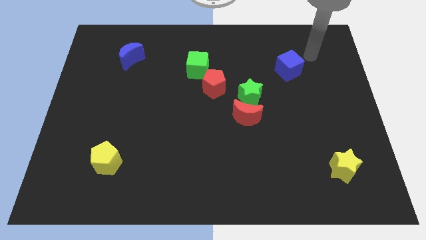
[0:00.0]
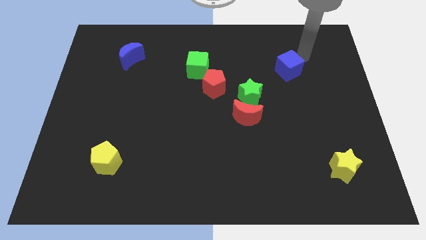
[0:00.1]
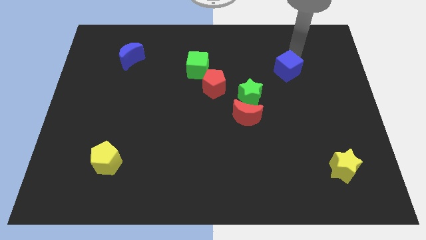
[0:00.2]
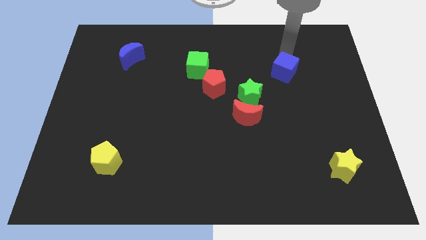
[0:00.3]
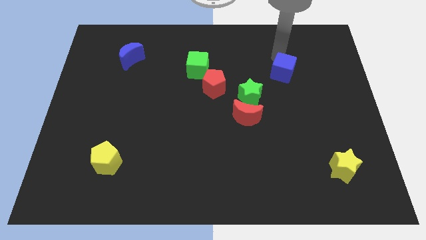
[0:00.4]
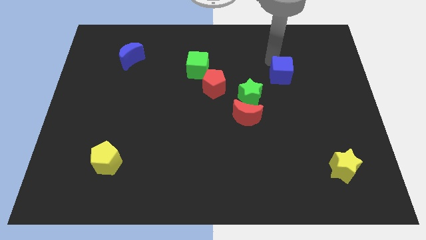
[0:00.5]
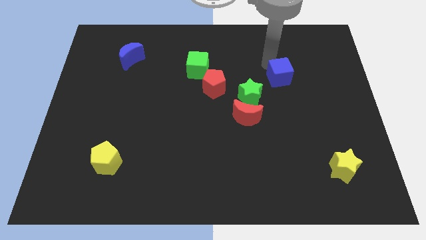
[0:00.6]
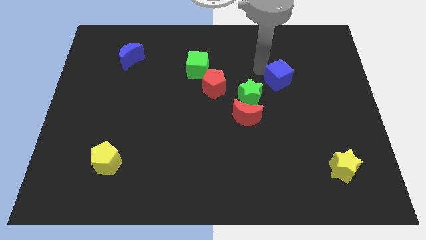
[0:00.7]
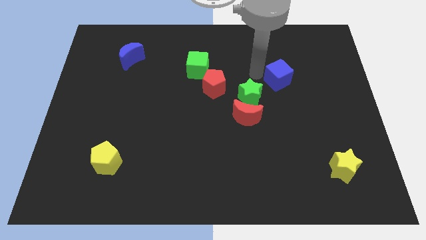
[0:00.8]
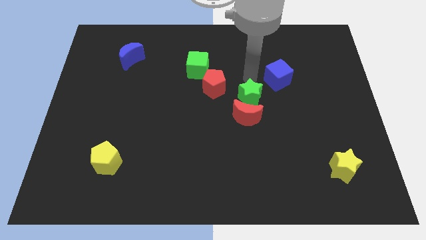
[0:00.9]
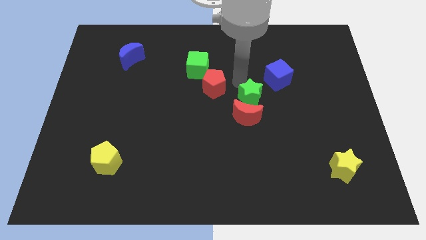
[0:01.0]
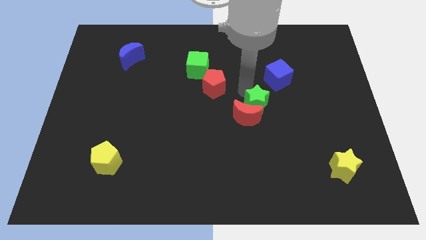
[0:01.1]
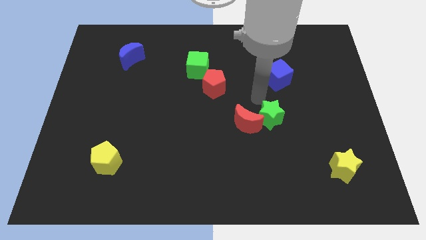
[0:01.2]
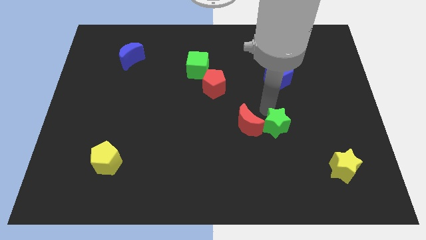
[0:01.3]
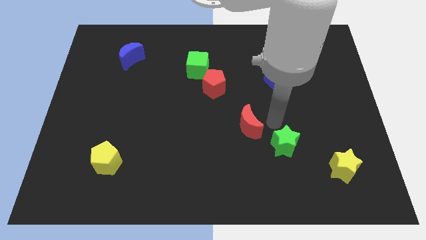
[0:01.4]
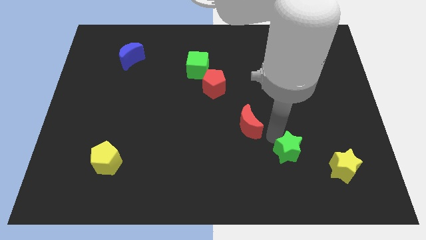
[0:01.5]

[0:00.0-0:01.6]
pull the red moon apart from the green star

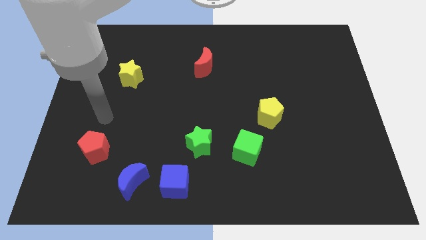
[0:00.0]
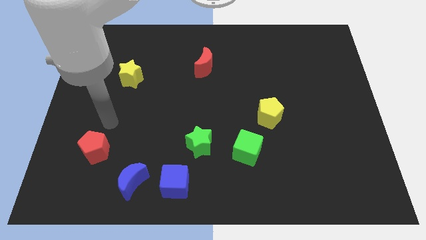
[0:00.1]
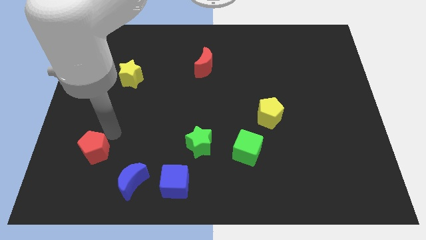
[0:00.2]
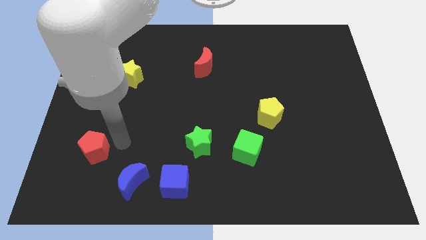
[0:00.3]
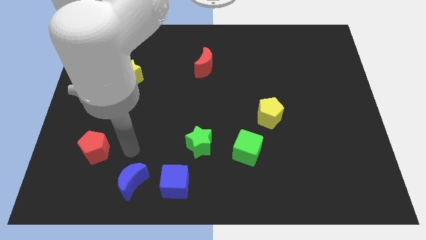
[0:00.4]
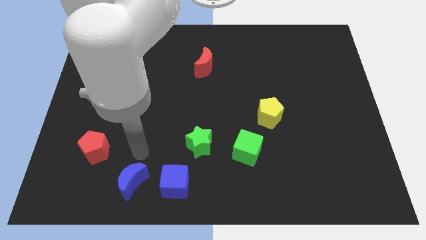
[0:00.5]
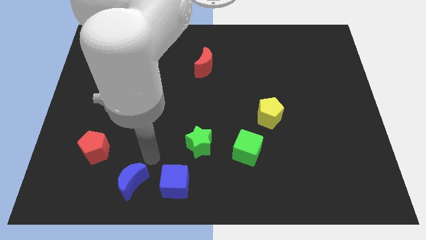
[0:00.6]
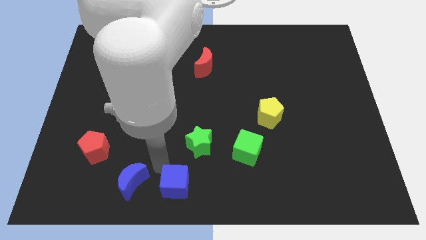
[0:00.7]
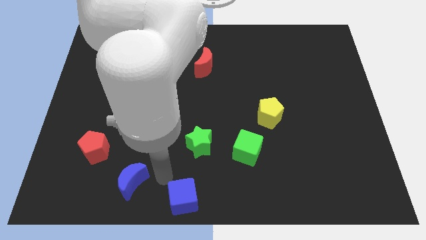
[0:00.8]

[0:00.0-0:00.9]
move the blue moon away from the blue cube

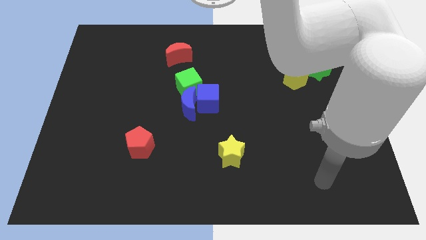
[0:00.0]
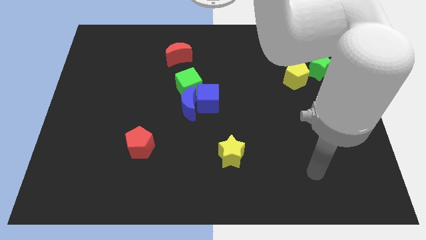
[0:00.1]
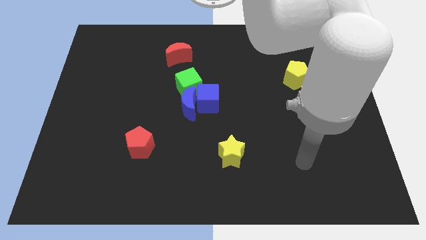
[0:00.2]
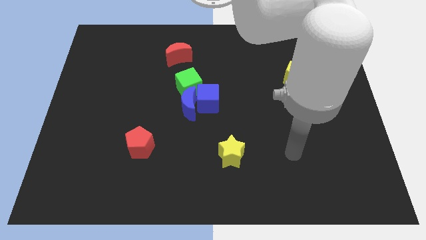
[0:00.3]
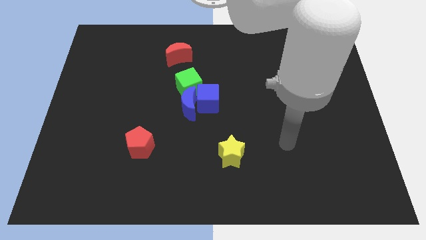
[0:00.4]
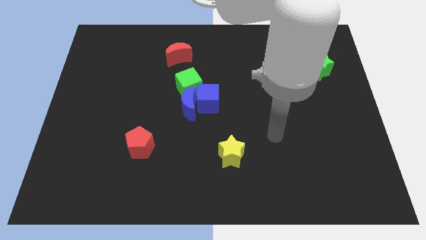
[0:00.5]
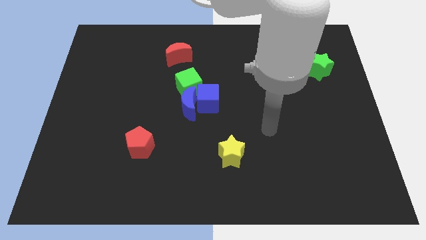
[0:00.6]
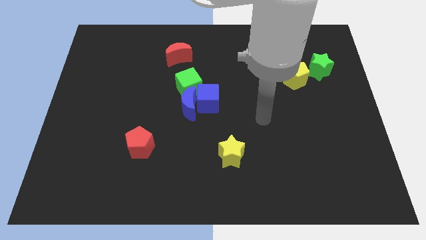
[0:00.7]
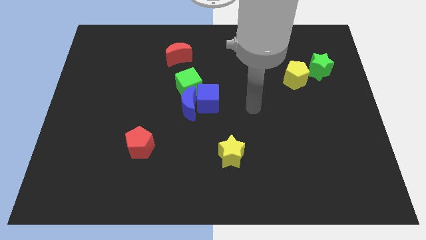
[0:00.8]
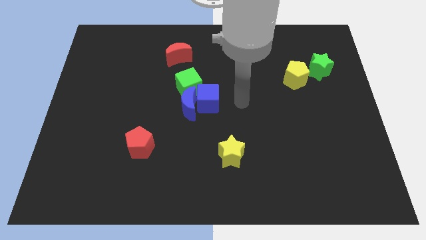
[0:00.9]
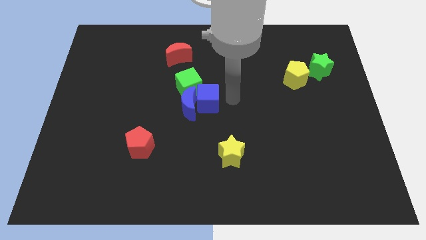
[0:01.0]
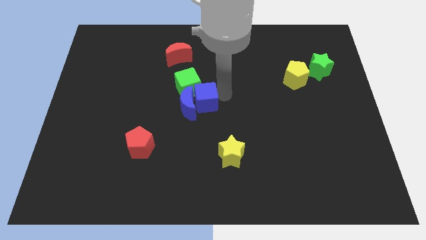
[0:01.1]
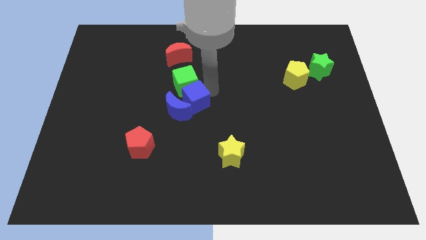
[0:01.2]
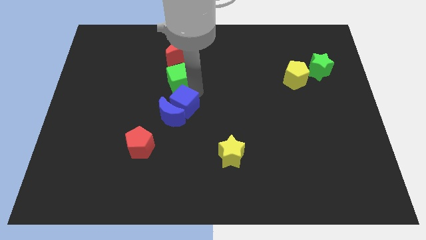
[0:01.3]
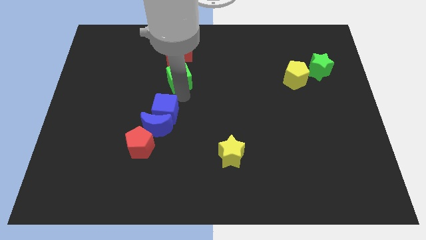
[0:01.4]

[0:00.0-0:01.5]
pull the blue moon apart from the blue cube and green cube

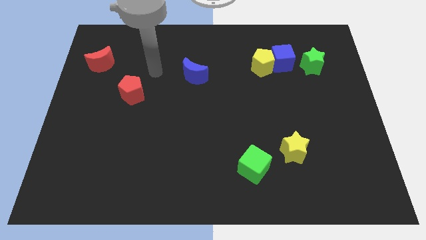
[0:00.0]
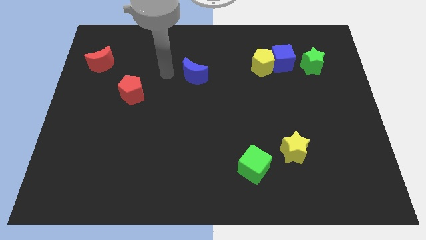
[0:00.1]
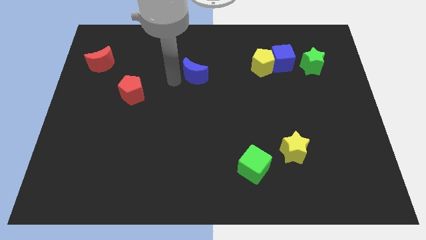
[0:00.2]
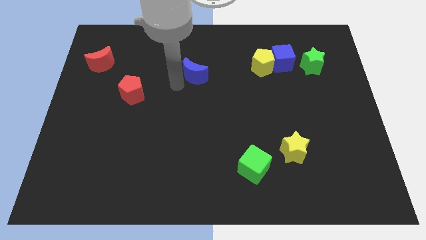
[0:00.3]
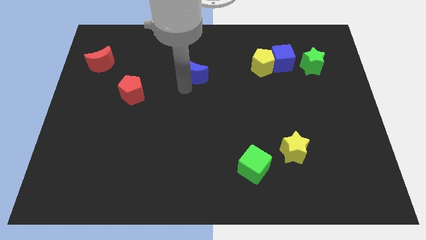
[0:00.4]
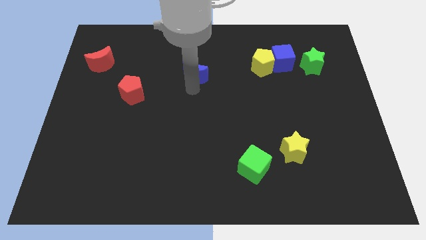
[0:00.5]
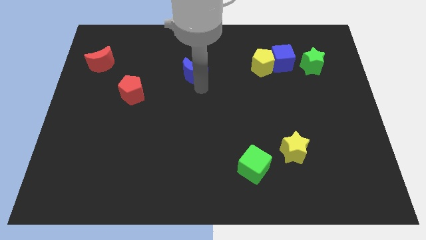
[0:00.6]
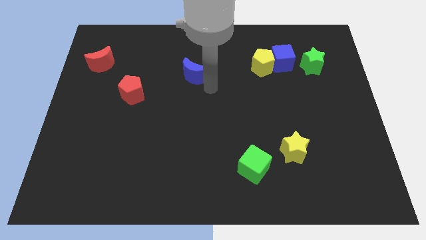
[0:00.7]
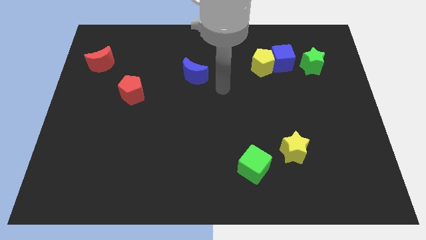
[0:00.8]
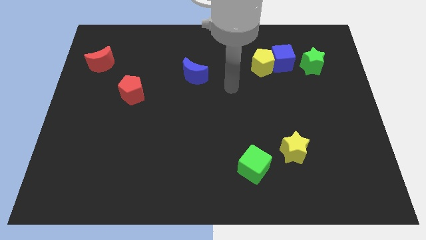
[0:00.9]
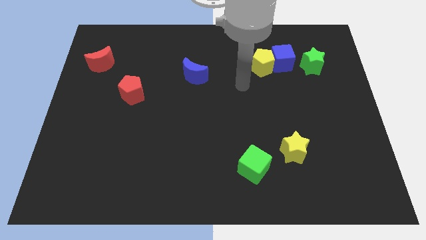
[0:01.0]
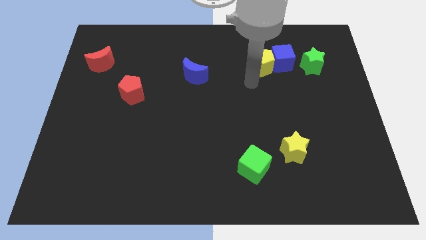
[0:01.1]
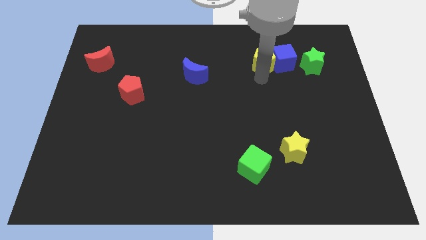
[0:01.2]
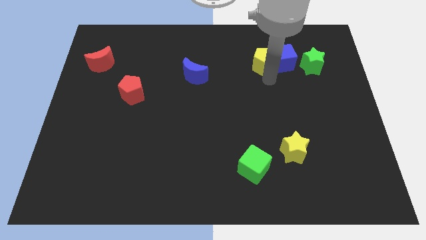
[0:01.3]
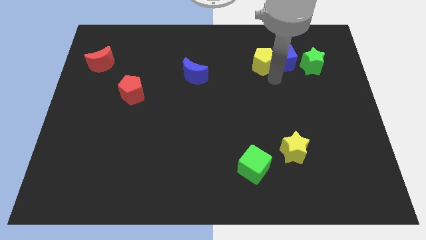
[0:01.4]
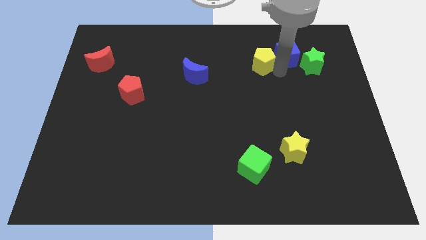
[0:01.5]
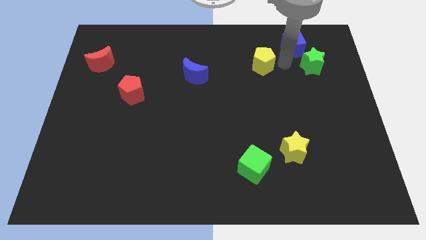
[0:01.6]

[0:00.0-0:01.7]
separate the yellow pentagon from the blue cube

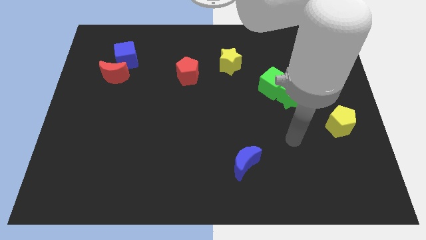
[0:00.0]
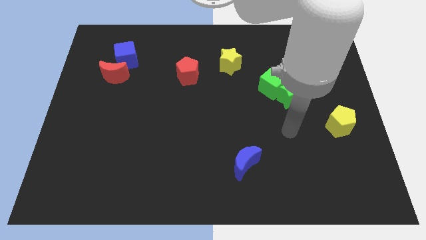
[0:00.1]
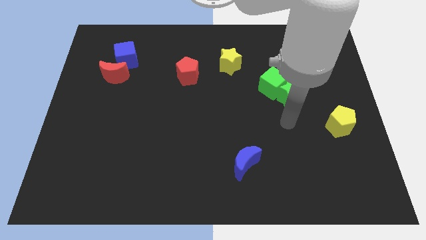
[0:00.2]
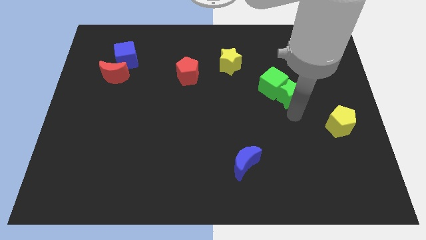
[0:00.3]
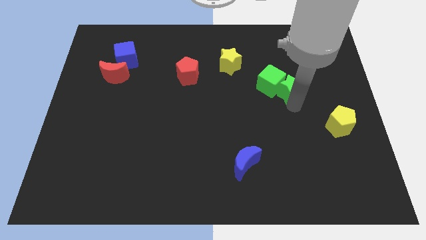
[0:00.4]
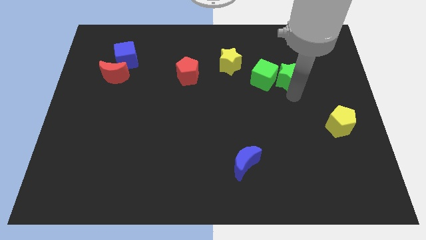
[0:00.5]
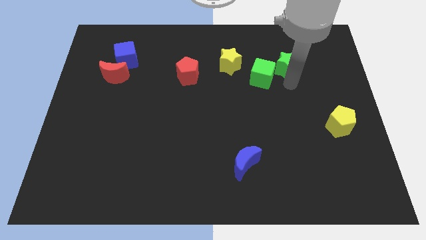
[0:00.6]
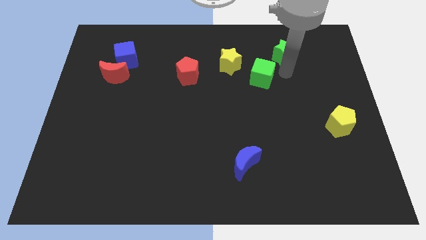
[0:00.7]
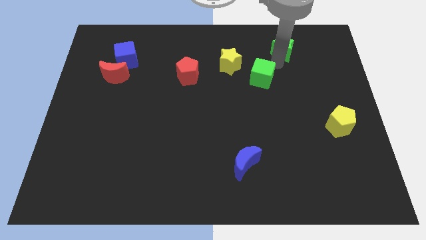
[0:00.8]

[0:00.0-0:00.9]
separate the green cube from the green star

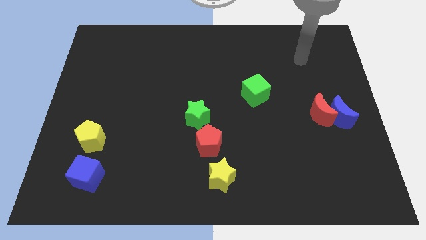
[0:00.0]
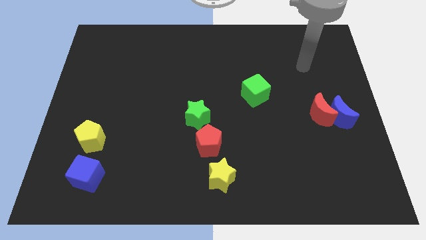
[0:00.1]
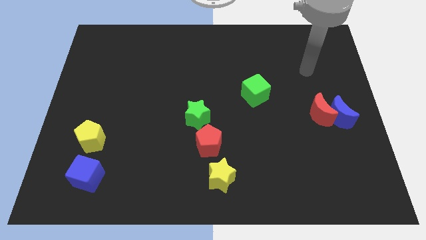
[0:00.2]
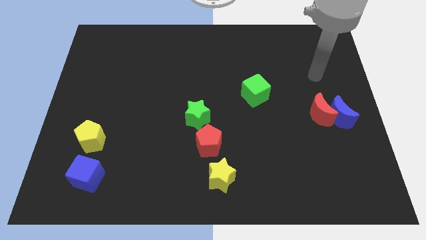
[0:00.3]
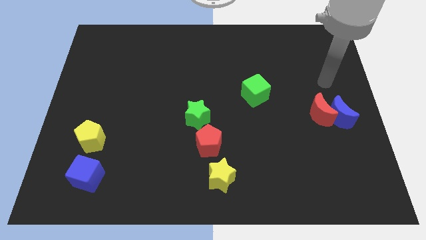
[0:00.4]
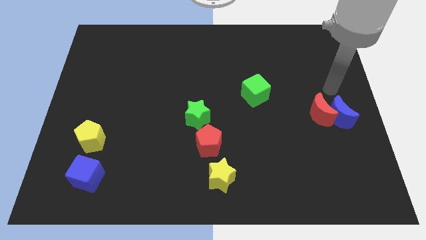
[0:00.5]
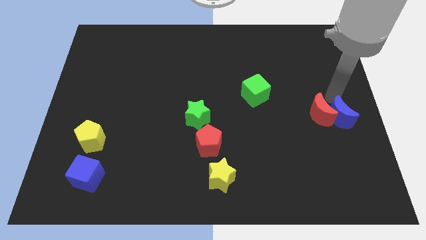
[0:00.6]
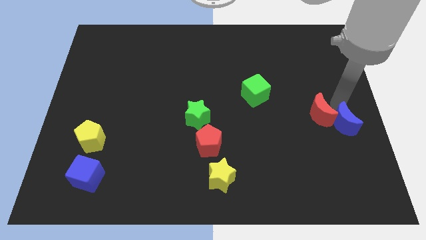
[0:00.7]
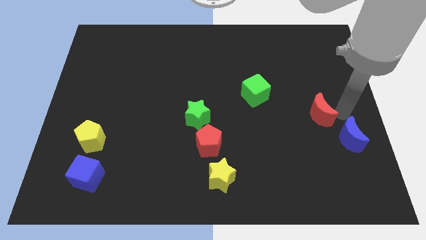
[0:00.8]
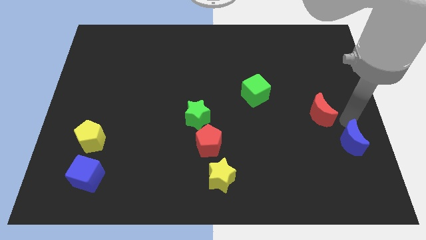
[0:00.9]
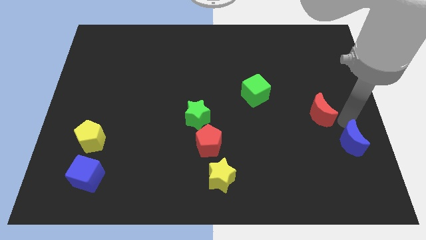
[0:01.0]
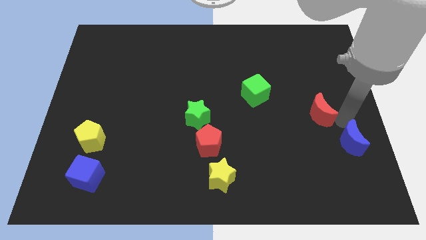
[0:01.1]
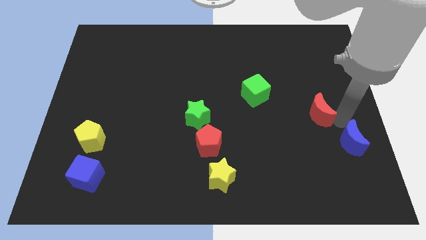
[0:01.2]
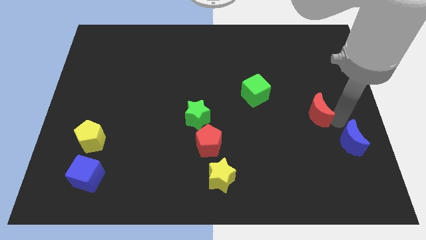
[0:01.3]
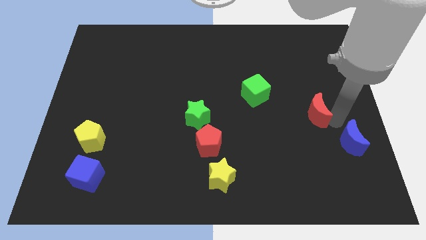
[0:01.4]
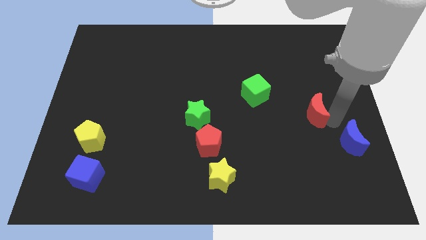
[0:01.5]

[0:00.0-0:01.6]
pull the red moon apart from the blue moon

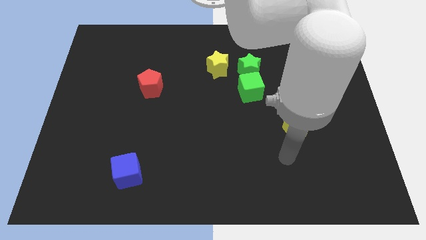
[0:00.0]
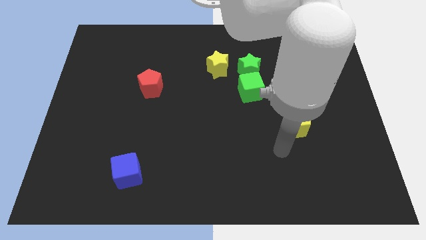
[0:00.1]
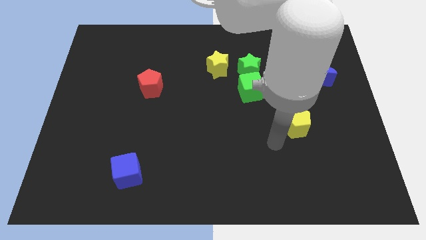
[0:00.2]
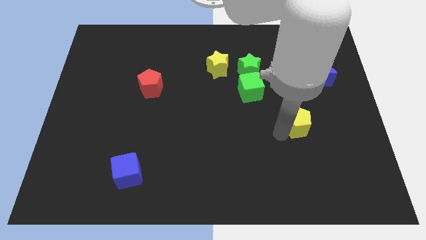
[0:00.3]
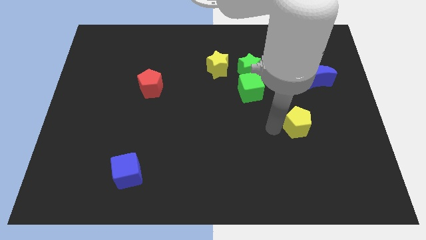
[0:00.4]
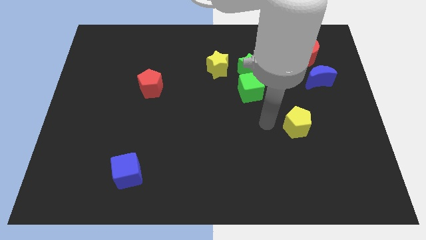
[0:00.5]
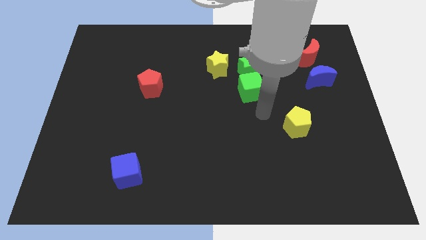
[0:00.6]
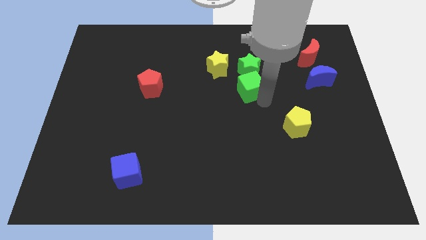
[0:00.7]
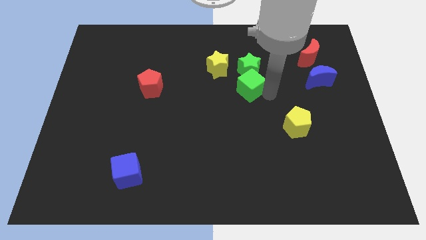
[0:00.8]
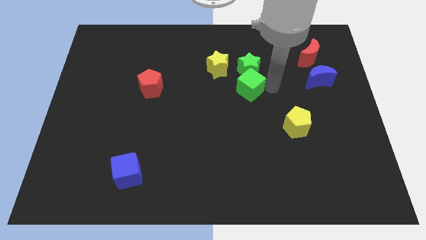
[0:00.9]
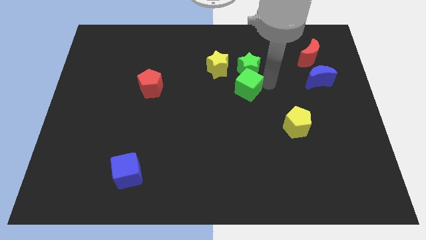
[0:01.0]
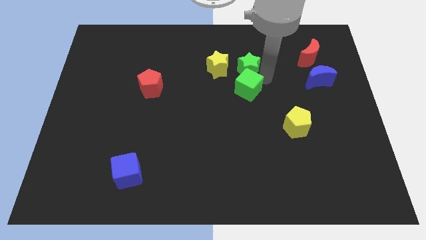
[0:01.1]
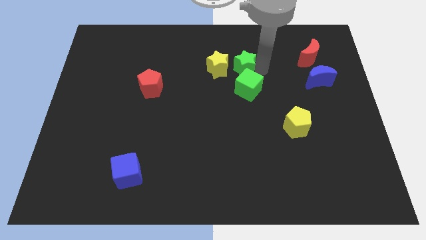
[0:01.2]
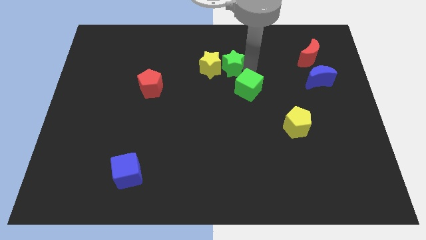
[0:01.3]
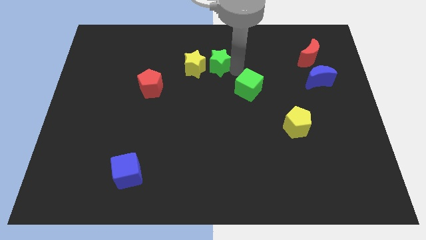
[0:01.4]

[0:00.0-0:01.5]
move the green cube away from the green star
